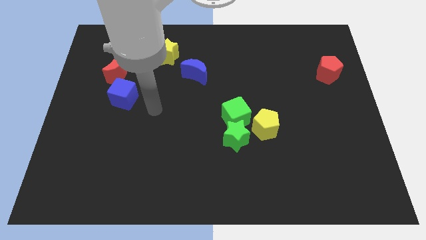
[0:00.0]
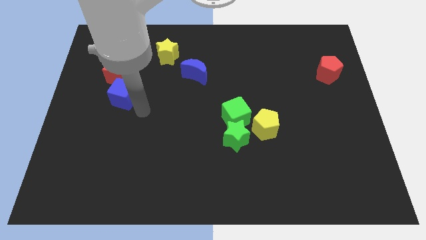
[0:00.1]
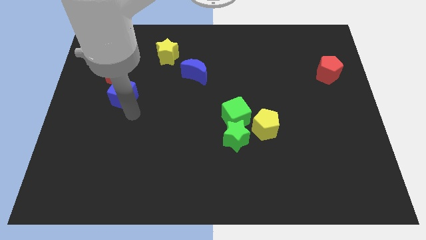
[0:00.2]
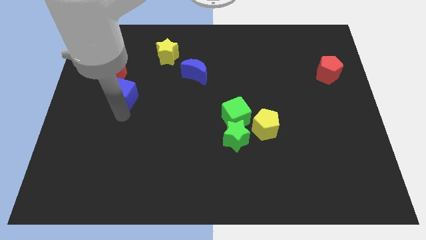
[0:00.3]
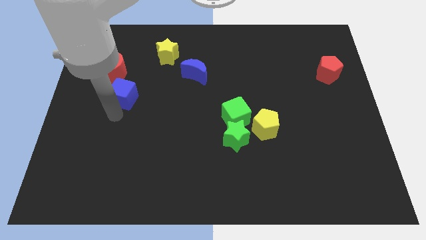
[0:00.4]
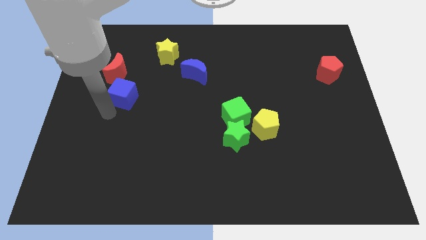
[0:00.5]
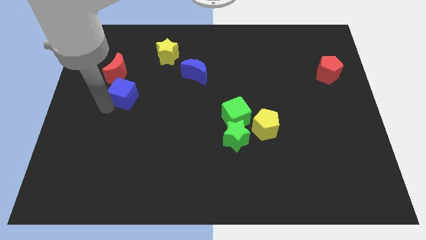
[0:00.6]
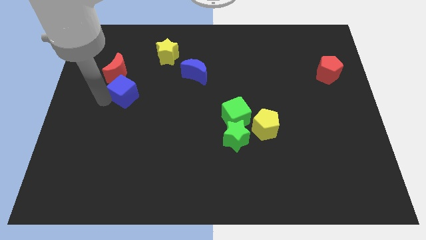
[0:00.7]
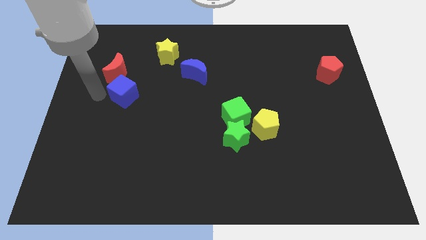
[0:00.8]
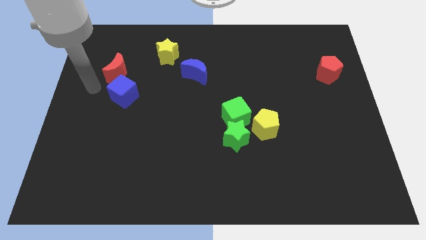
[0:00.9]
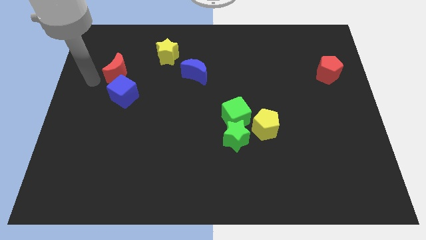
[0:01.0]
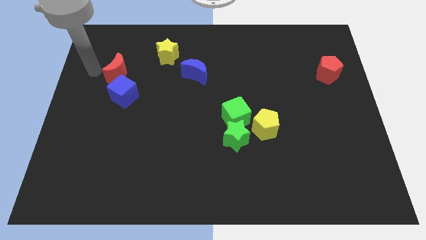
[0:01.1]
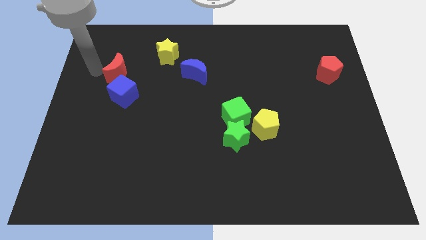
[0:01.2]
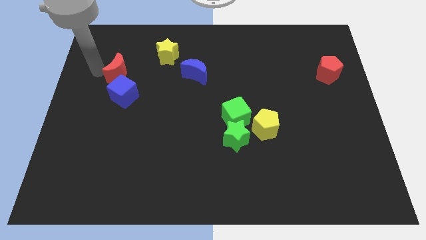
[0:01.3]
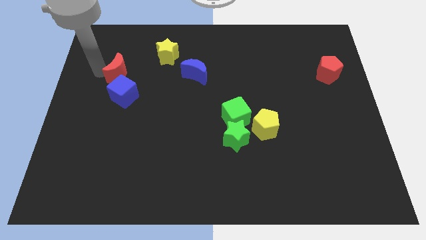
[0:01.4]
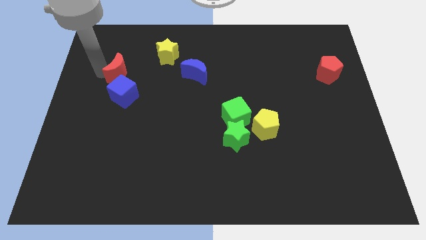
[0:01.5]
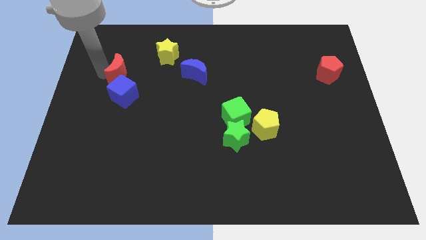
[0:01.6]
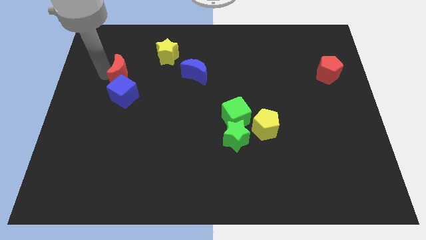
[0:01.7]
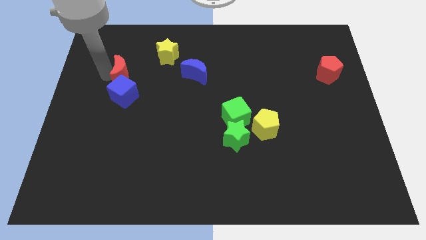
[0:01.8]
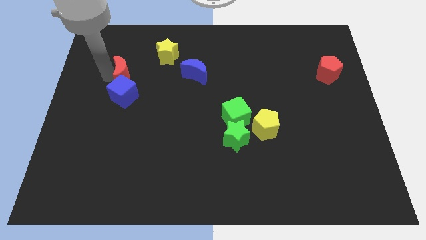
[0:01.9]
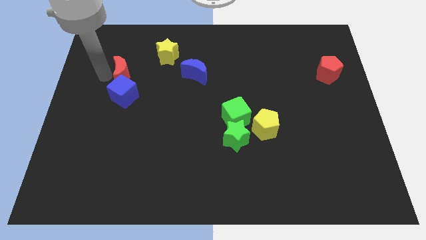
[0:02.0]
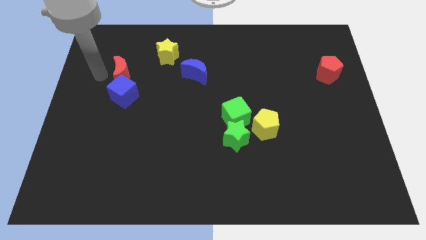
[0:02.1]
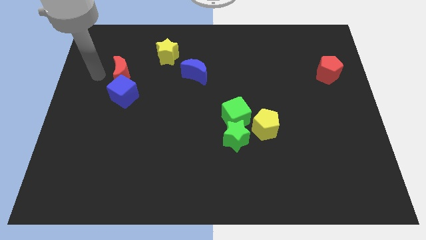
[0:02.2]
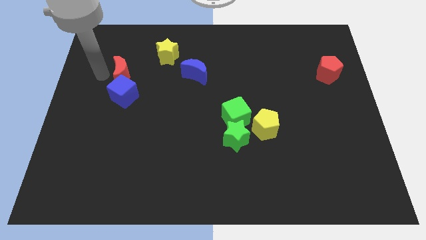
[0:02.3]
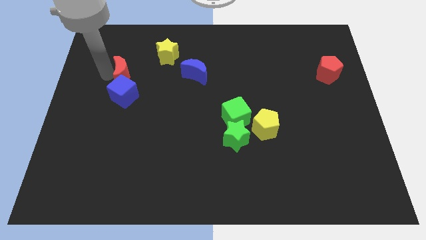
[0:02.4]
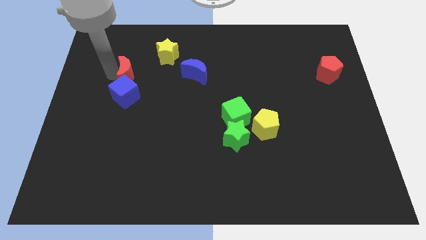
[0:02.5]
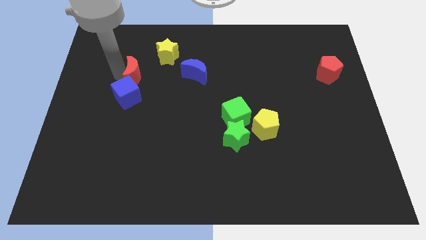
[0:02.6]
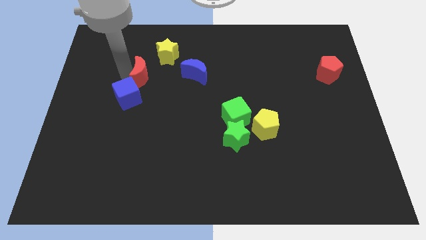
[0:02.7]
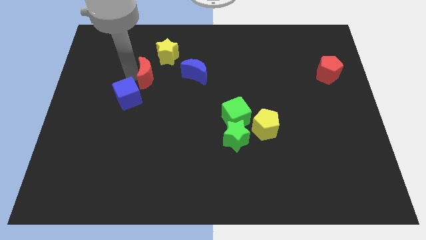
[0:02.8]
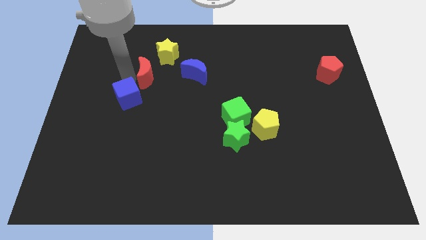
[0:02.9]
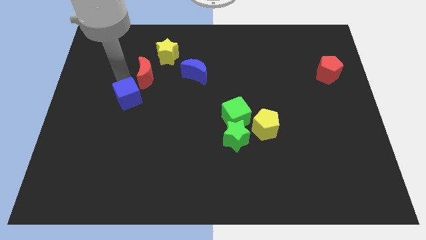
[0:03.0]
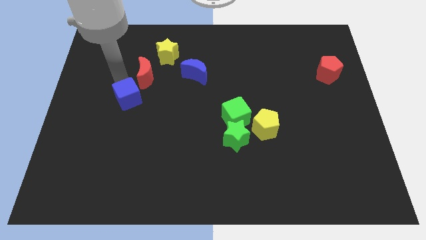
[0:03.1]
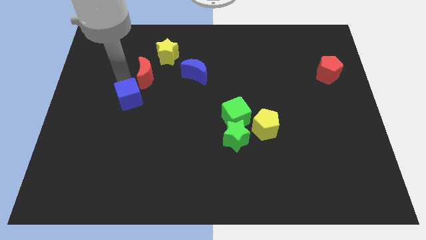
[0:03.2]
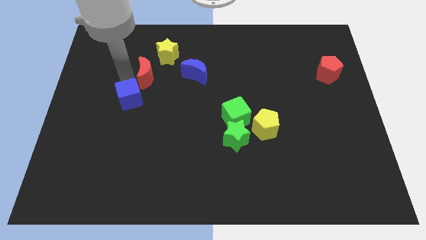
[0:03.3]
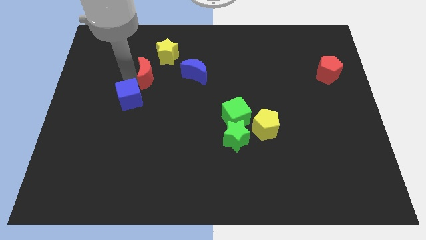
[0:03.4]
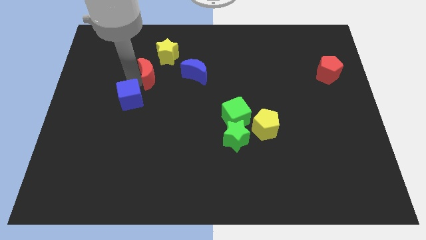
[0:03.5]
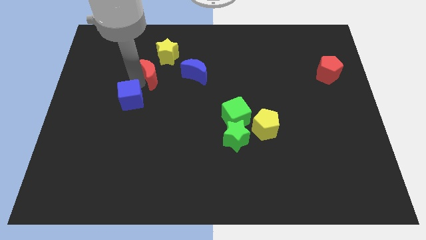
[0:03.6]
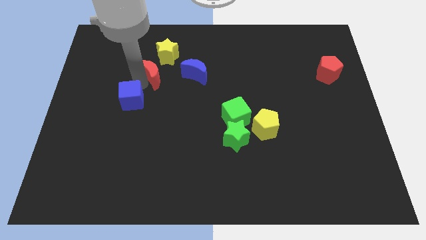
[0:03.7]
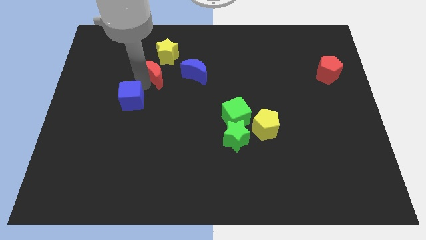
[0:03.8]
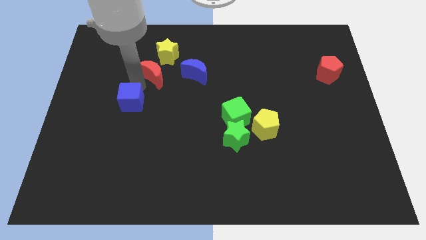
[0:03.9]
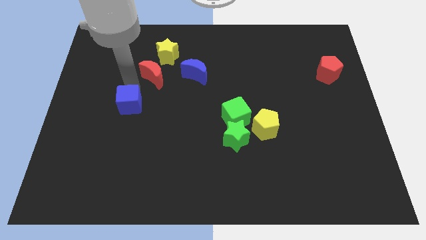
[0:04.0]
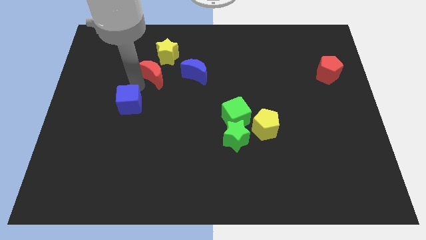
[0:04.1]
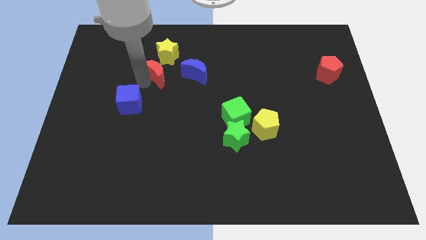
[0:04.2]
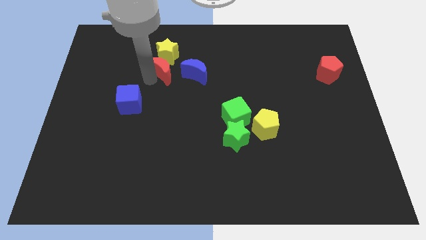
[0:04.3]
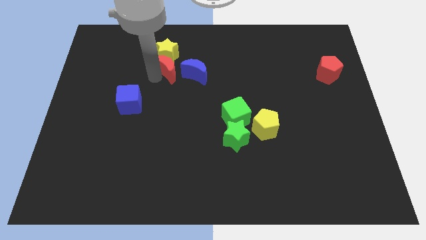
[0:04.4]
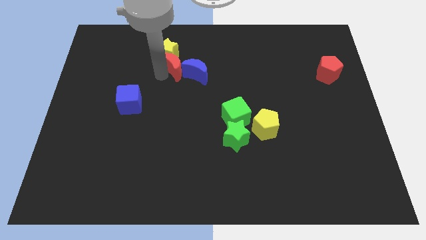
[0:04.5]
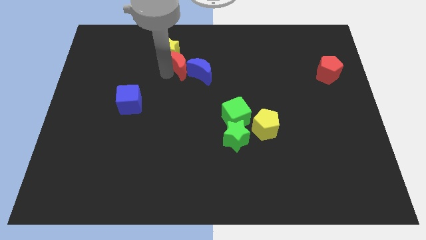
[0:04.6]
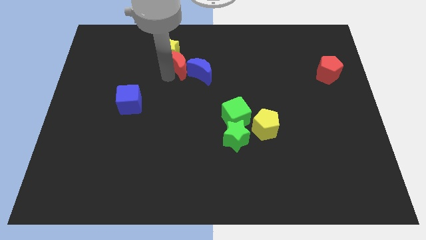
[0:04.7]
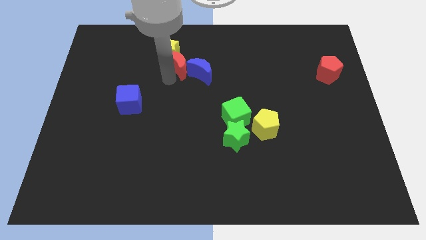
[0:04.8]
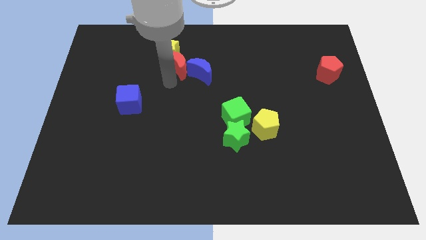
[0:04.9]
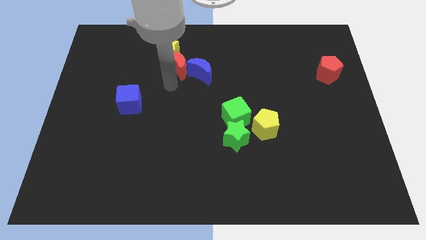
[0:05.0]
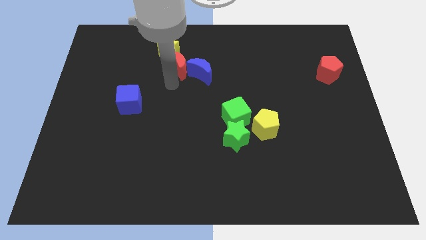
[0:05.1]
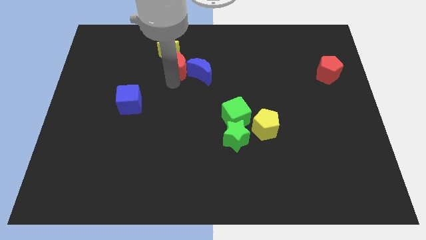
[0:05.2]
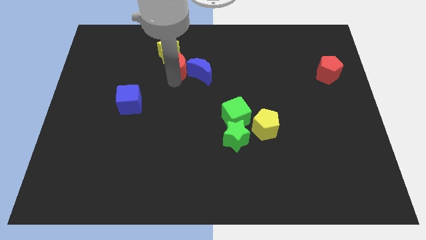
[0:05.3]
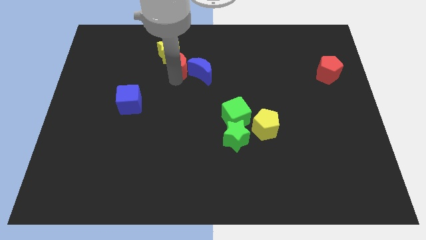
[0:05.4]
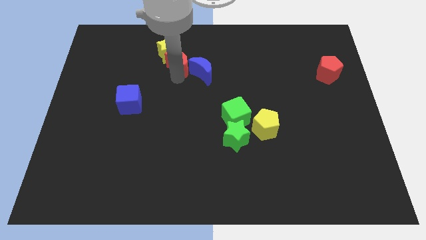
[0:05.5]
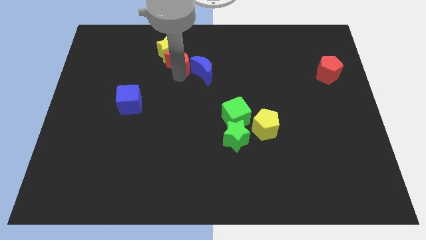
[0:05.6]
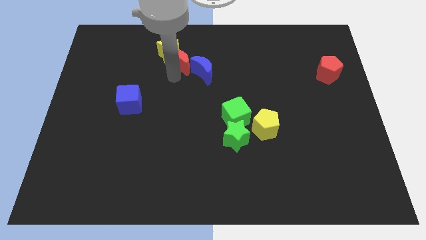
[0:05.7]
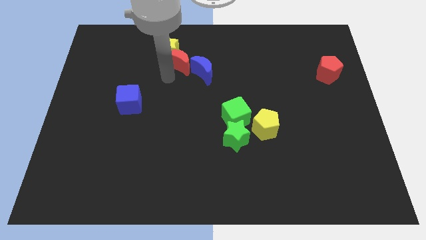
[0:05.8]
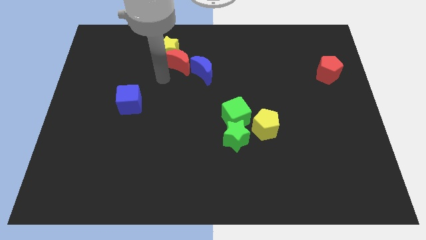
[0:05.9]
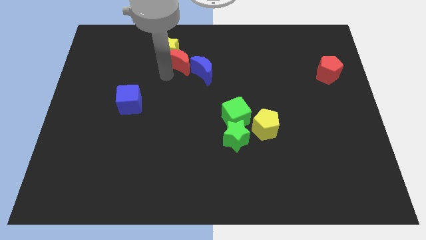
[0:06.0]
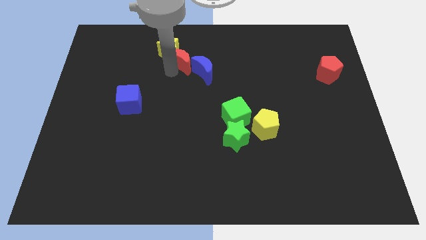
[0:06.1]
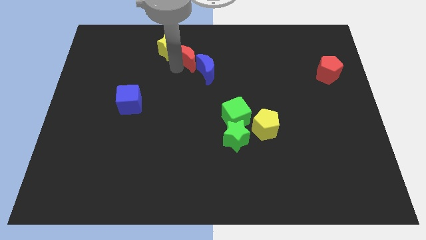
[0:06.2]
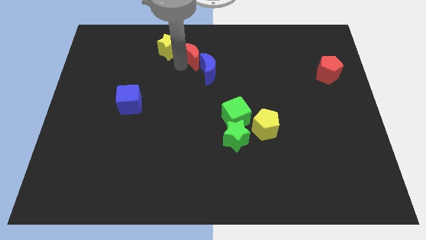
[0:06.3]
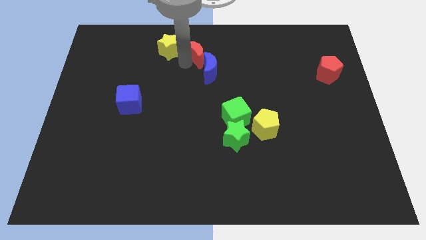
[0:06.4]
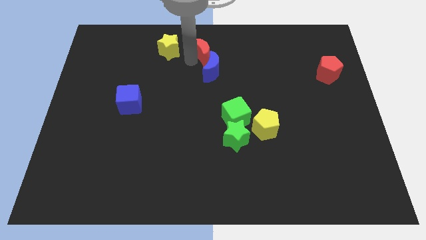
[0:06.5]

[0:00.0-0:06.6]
put the red moon to the top
